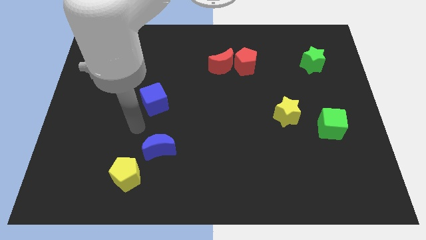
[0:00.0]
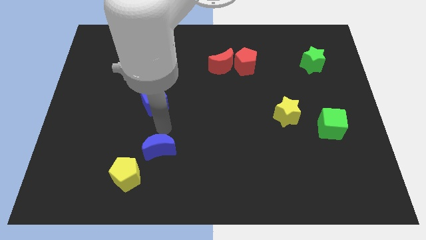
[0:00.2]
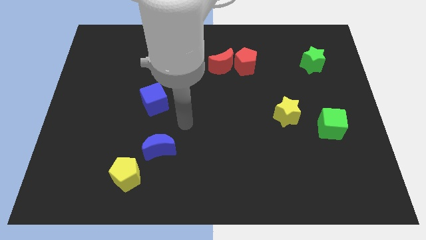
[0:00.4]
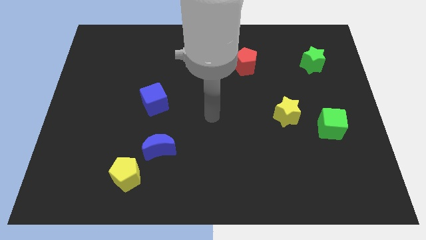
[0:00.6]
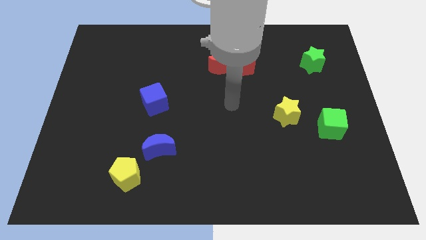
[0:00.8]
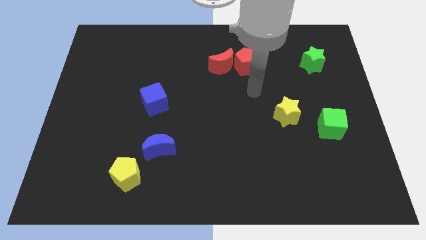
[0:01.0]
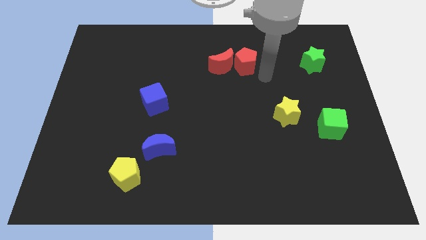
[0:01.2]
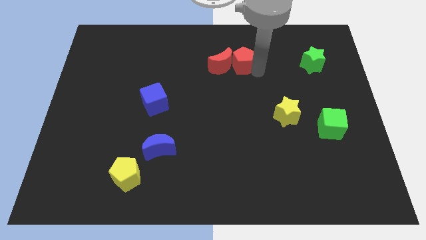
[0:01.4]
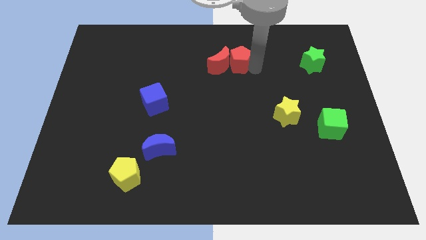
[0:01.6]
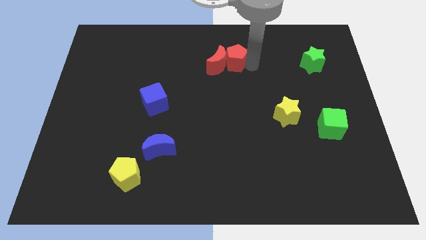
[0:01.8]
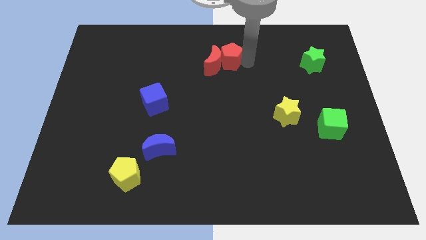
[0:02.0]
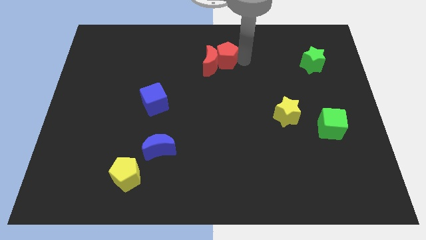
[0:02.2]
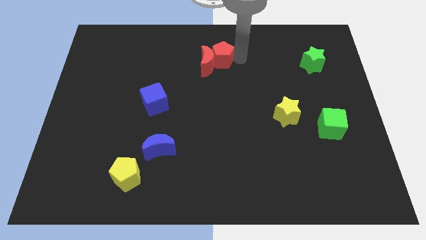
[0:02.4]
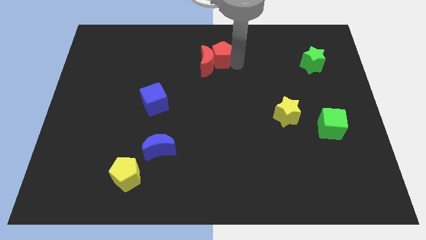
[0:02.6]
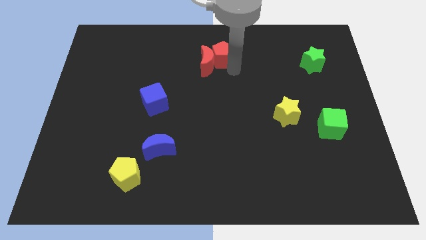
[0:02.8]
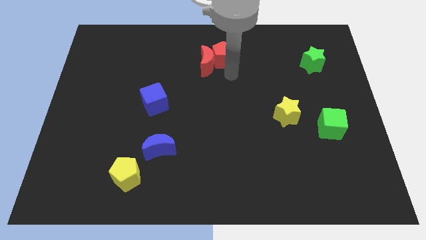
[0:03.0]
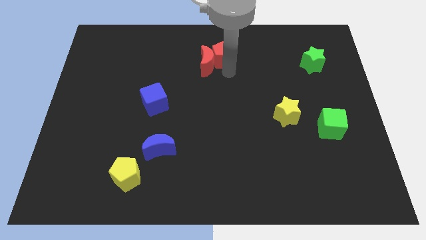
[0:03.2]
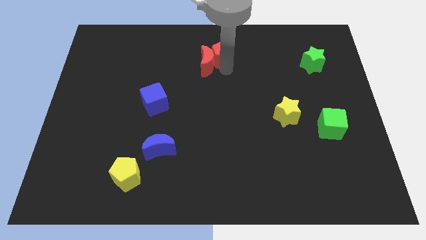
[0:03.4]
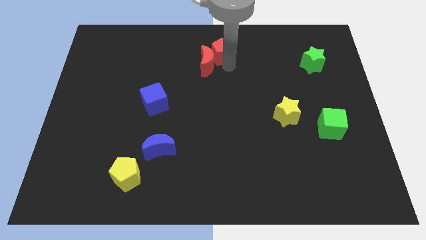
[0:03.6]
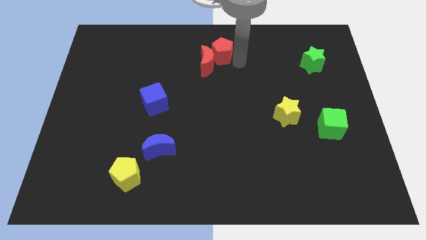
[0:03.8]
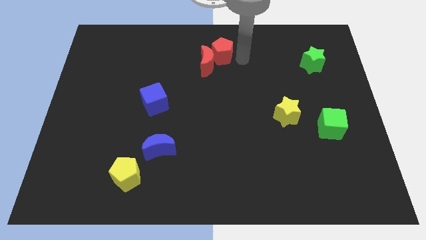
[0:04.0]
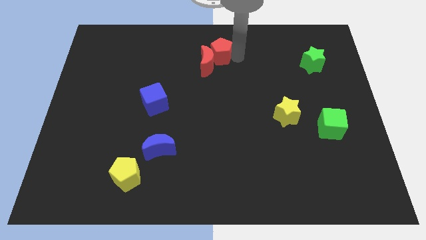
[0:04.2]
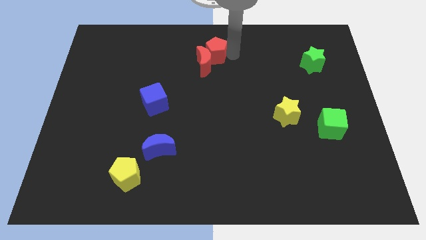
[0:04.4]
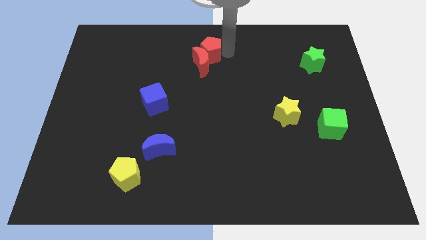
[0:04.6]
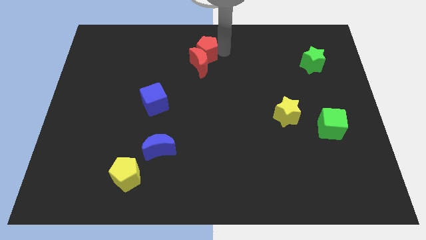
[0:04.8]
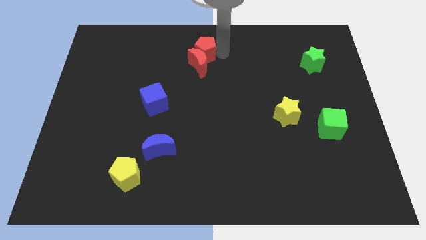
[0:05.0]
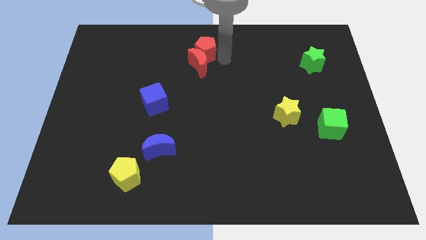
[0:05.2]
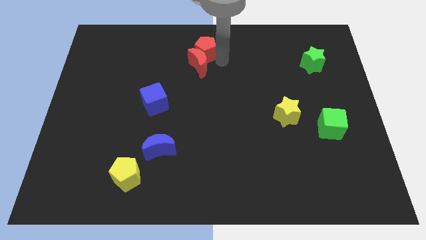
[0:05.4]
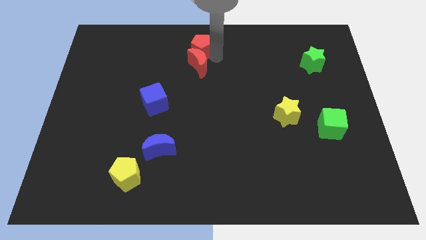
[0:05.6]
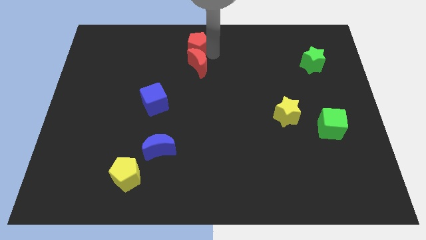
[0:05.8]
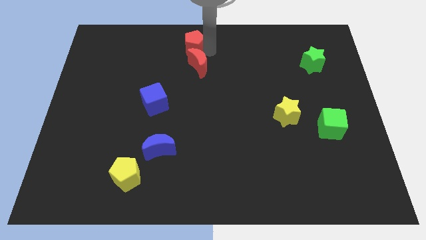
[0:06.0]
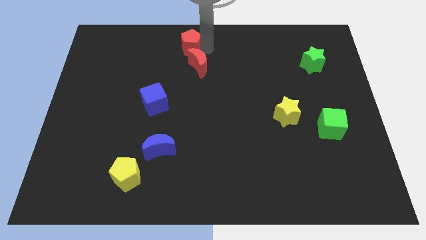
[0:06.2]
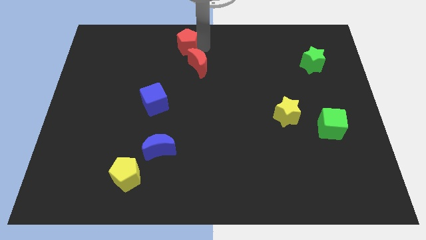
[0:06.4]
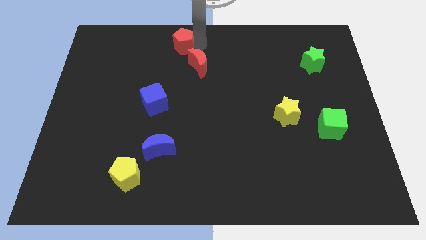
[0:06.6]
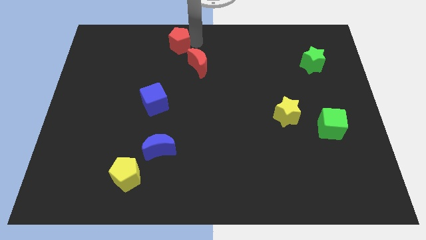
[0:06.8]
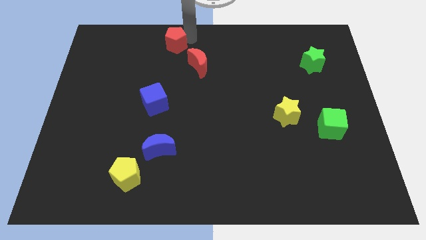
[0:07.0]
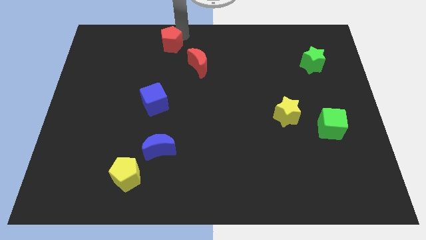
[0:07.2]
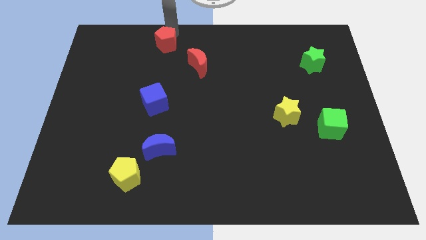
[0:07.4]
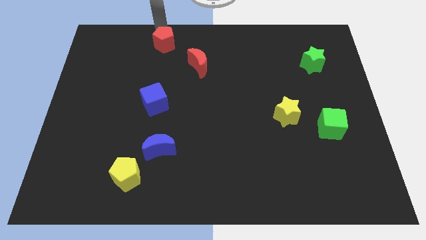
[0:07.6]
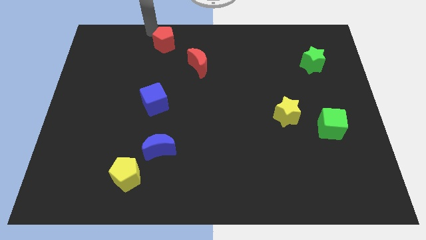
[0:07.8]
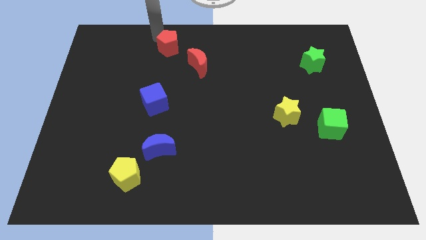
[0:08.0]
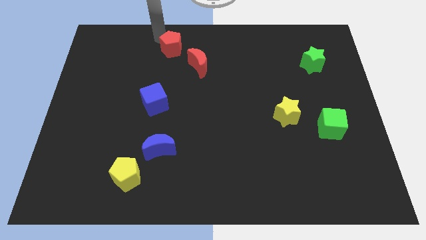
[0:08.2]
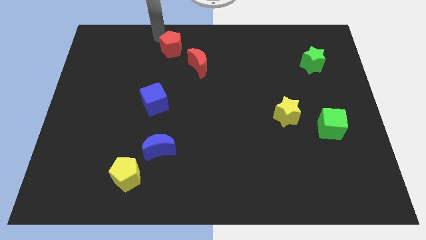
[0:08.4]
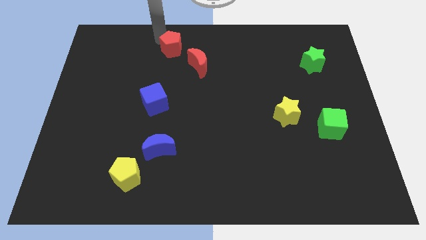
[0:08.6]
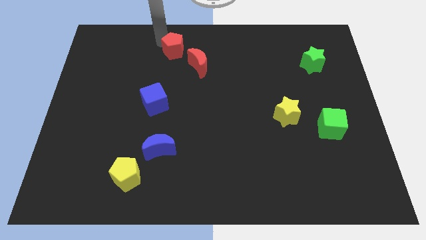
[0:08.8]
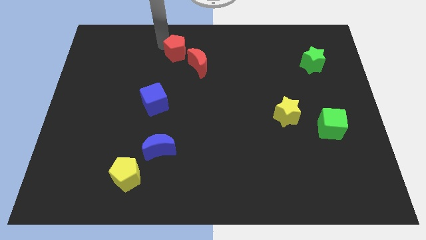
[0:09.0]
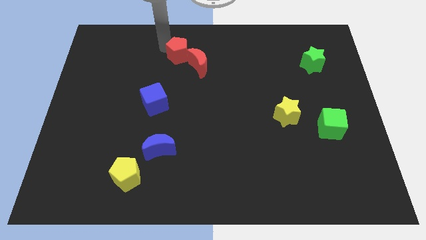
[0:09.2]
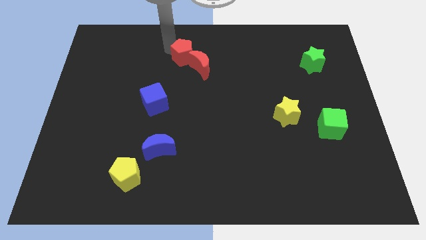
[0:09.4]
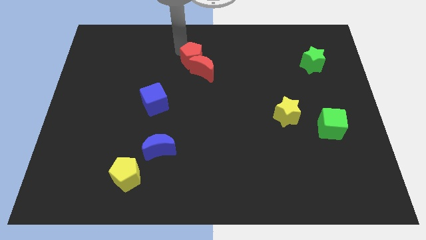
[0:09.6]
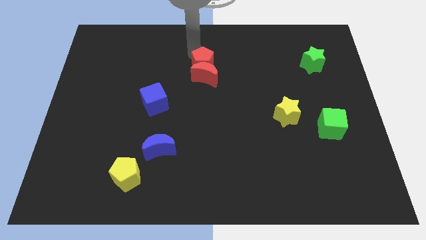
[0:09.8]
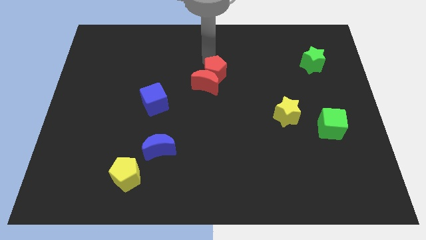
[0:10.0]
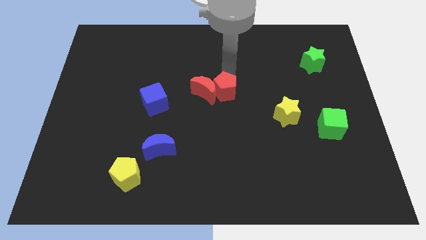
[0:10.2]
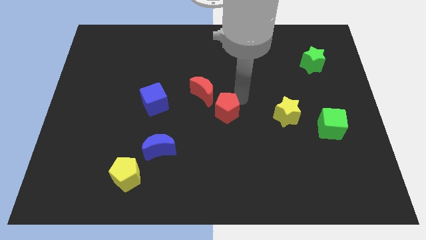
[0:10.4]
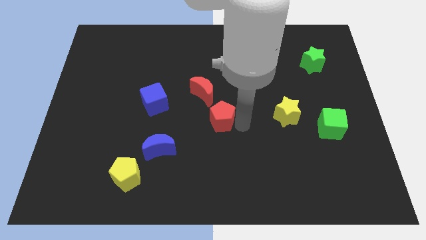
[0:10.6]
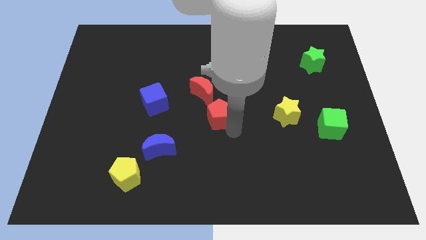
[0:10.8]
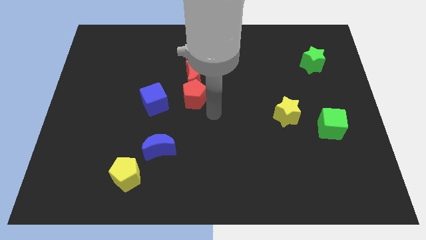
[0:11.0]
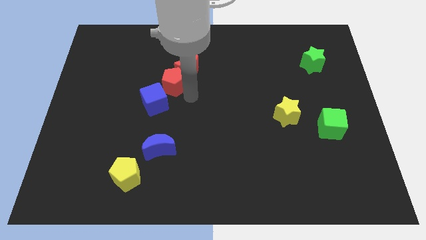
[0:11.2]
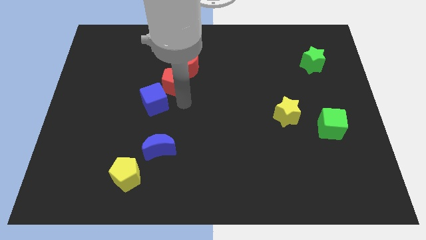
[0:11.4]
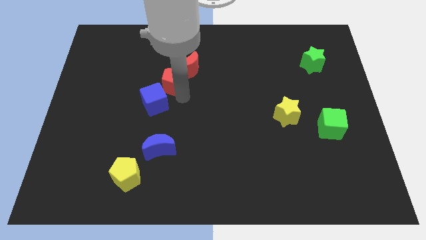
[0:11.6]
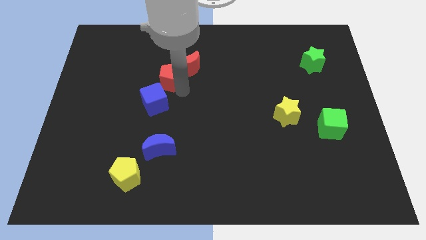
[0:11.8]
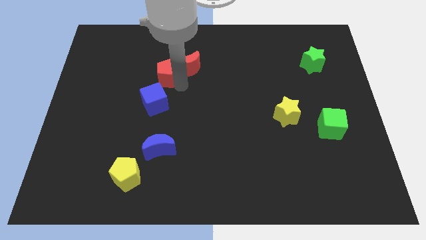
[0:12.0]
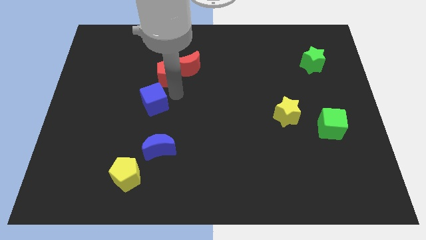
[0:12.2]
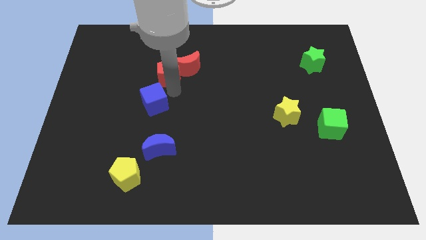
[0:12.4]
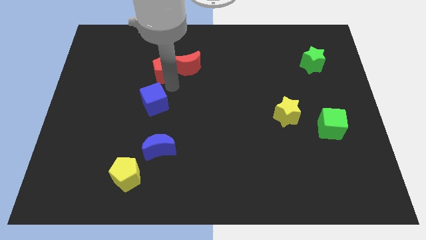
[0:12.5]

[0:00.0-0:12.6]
push the red pentagon left

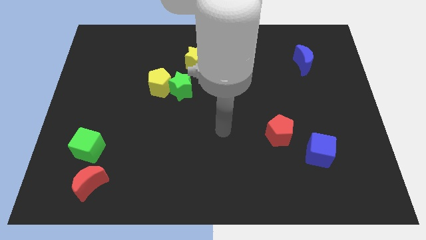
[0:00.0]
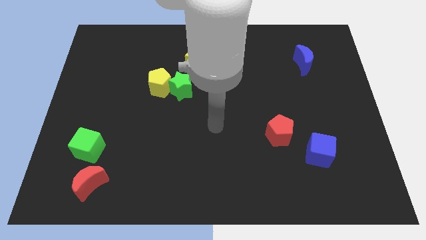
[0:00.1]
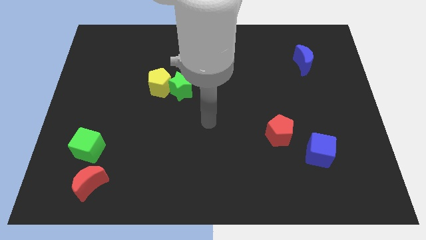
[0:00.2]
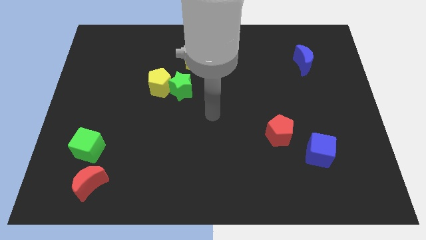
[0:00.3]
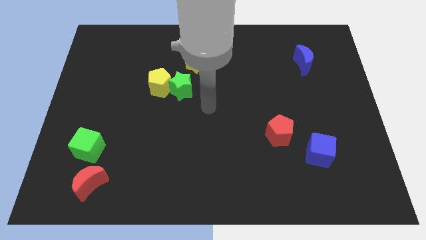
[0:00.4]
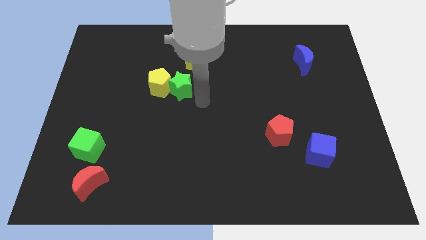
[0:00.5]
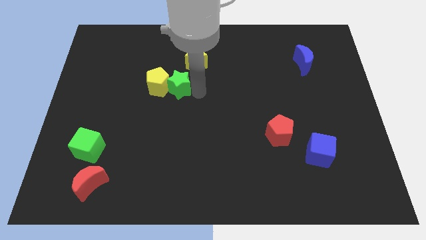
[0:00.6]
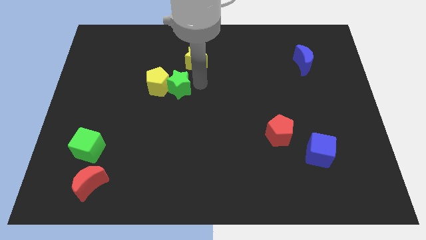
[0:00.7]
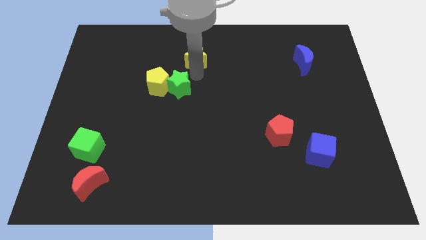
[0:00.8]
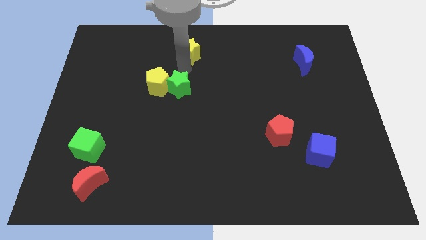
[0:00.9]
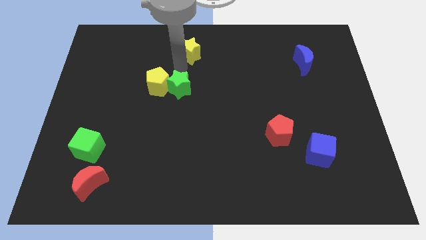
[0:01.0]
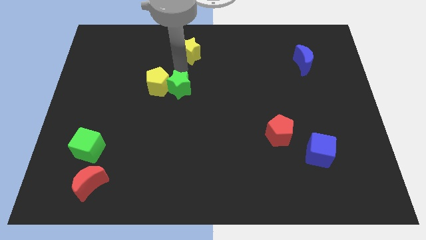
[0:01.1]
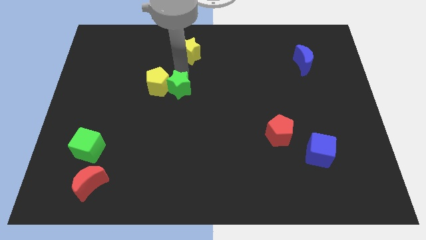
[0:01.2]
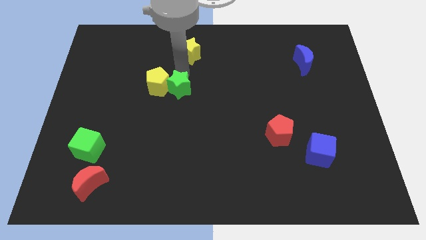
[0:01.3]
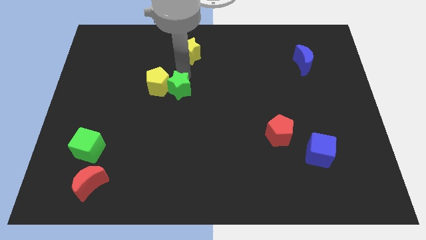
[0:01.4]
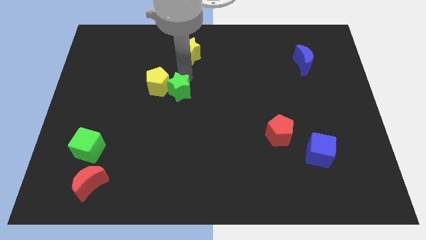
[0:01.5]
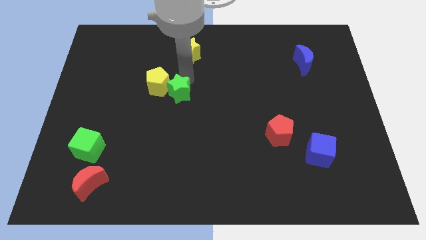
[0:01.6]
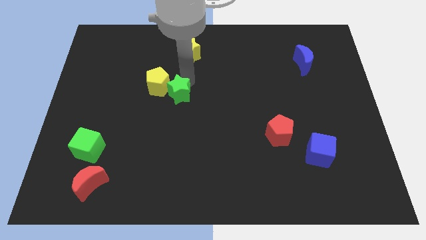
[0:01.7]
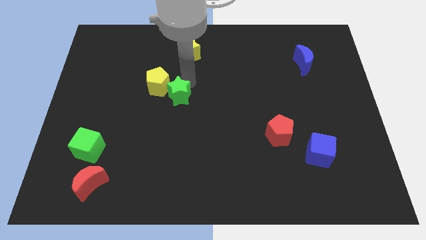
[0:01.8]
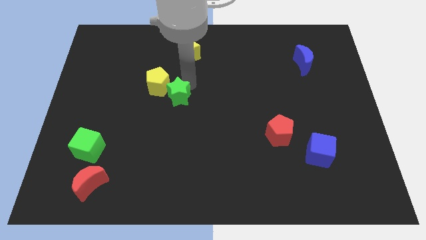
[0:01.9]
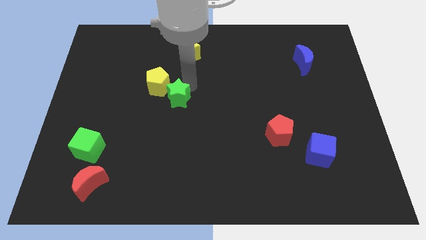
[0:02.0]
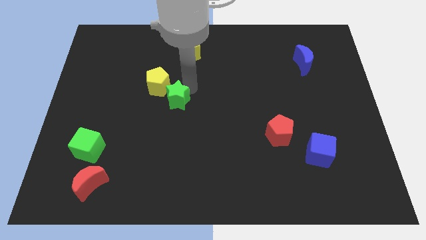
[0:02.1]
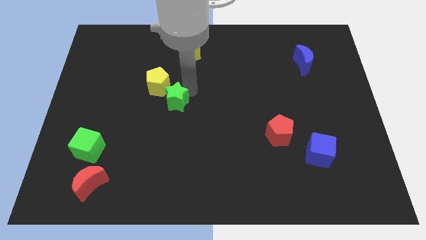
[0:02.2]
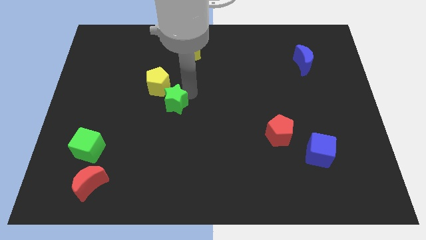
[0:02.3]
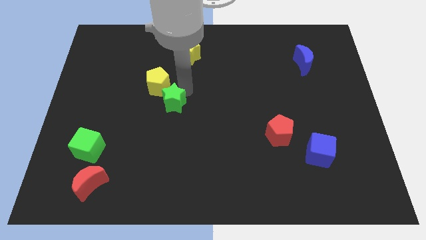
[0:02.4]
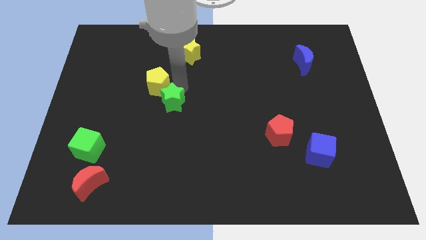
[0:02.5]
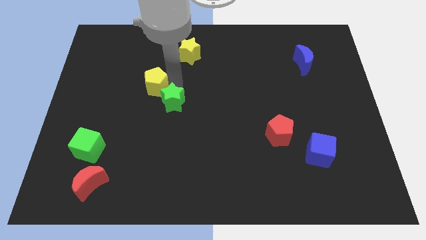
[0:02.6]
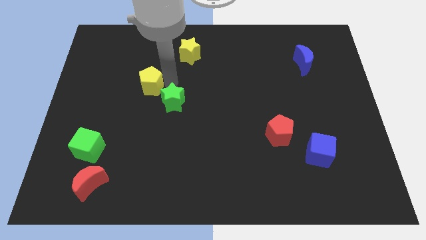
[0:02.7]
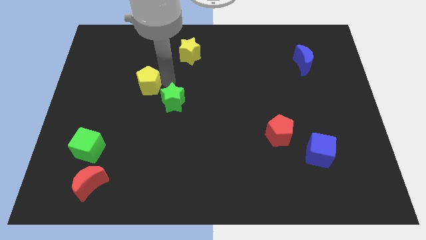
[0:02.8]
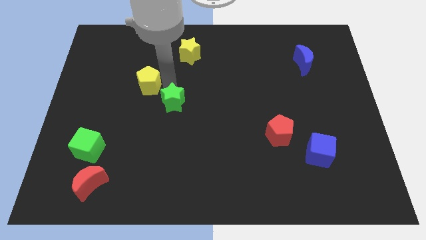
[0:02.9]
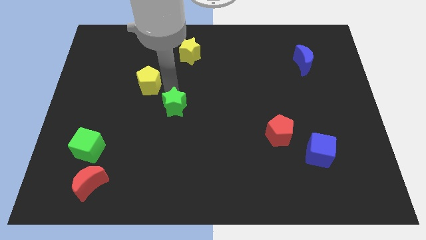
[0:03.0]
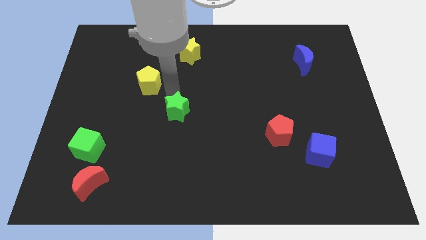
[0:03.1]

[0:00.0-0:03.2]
slightly push the green star downwards
